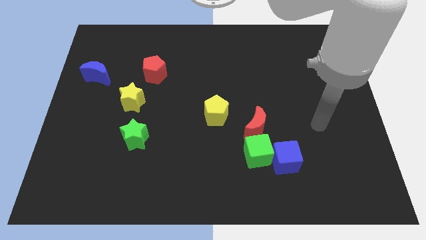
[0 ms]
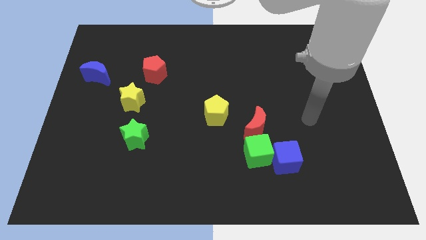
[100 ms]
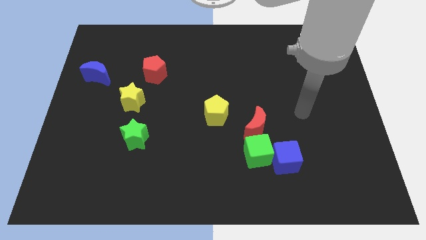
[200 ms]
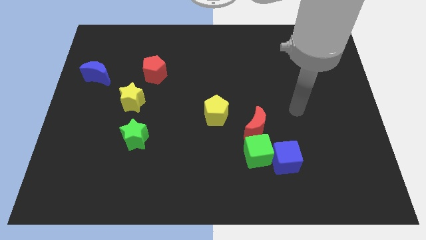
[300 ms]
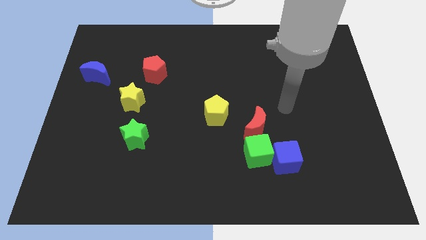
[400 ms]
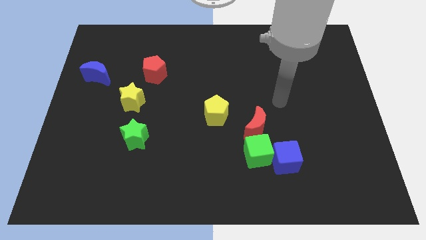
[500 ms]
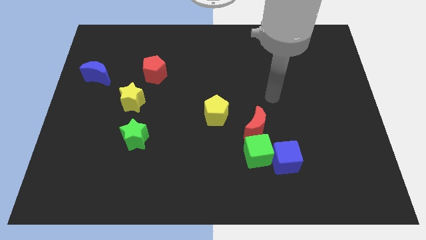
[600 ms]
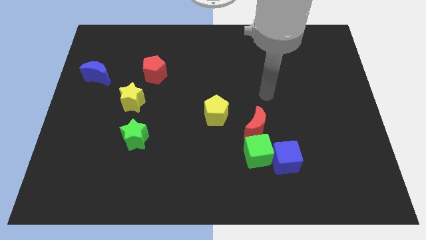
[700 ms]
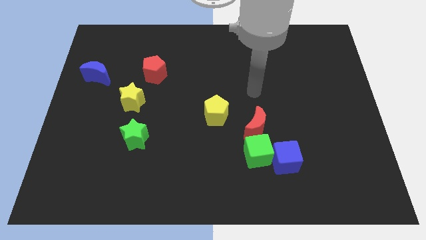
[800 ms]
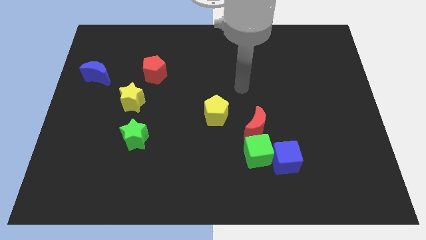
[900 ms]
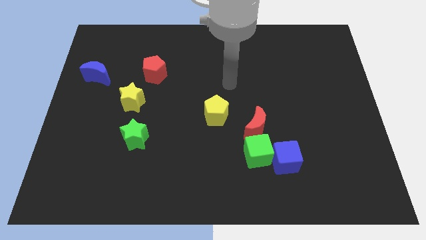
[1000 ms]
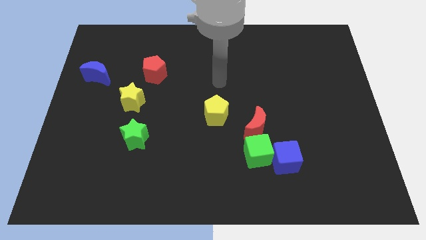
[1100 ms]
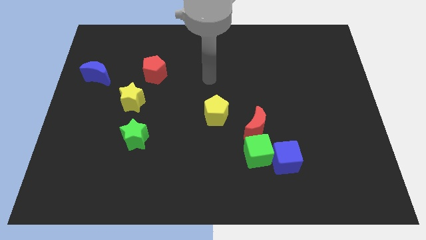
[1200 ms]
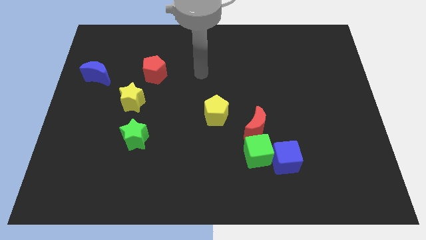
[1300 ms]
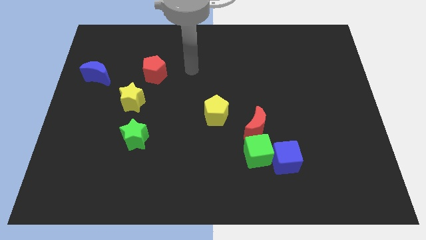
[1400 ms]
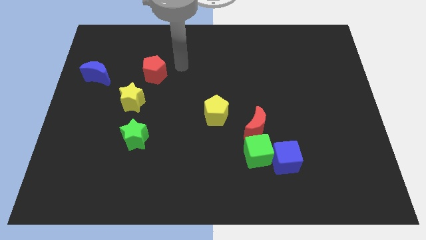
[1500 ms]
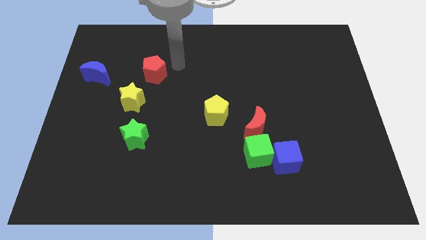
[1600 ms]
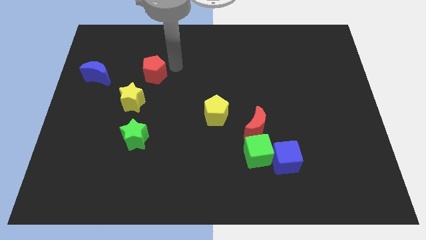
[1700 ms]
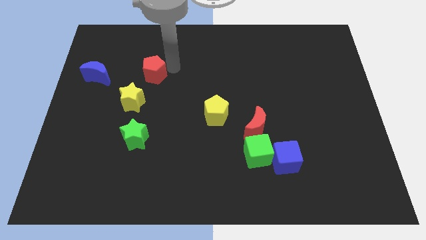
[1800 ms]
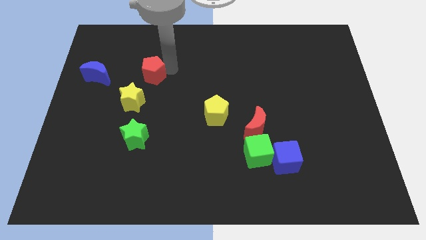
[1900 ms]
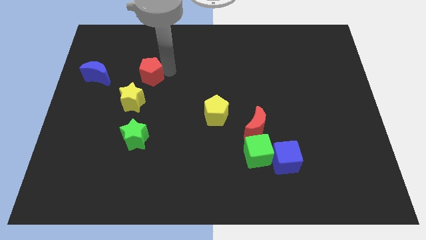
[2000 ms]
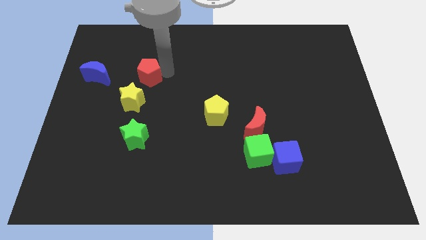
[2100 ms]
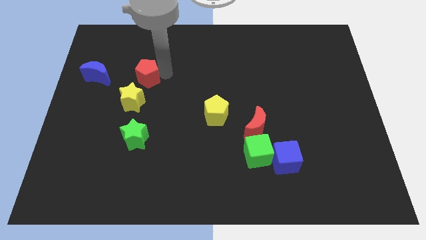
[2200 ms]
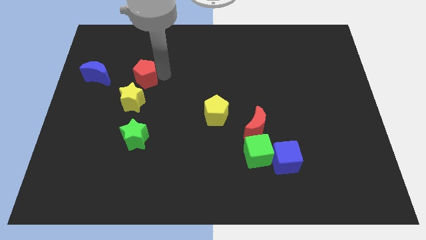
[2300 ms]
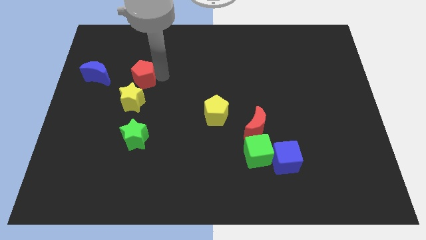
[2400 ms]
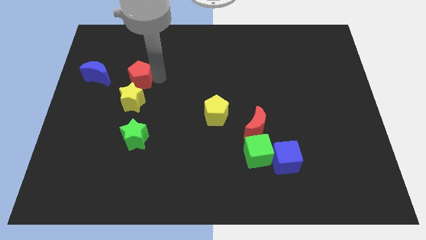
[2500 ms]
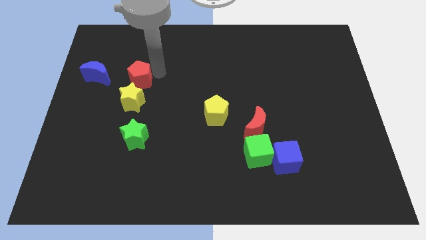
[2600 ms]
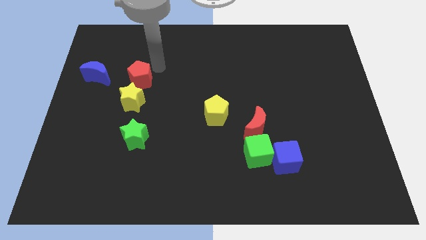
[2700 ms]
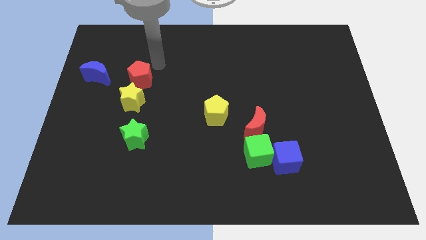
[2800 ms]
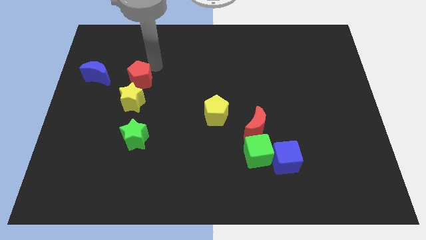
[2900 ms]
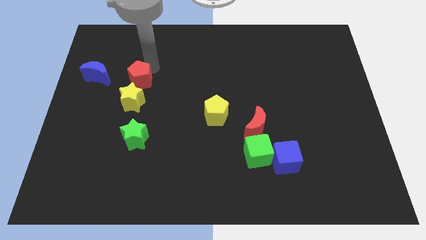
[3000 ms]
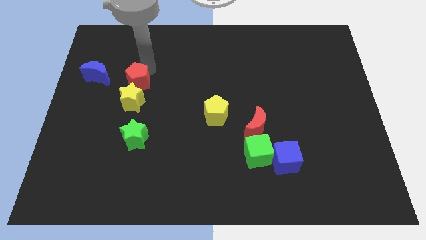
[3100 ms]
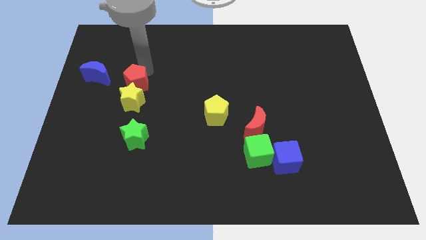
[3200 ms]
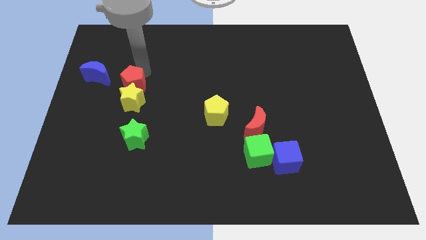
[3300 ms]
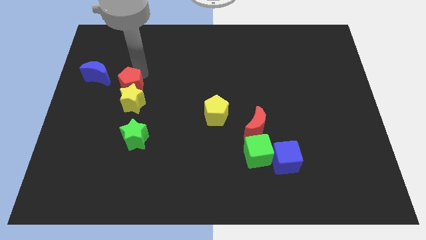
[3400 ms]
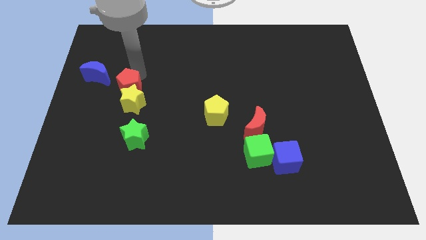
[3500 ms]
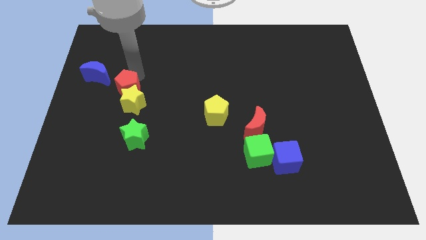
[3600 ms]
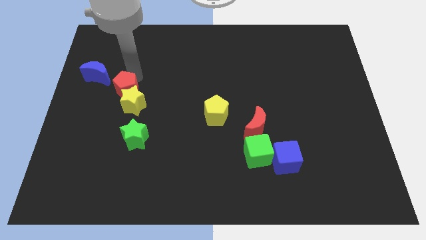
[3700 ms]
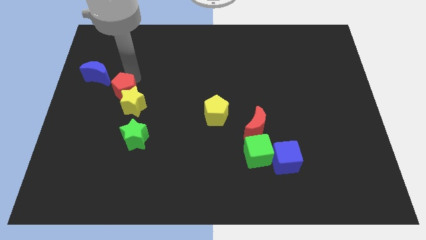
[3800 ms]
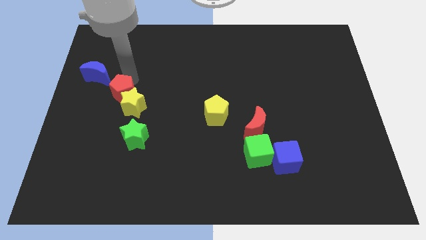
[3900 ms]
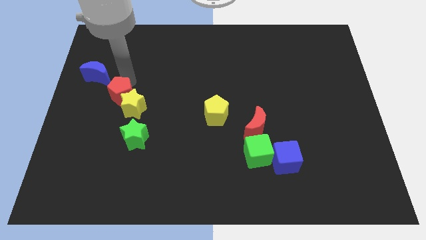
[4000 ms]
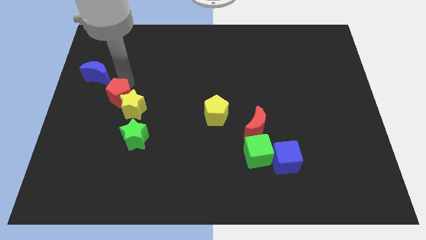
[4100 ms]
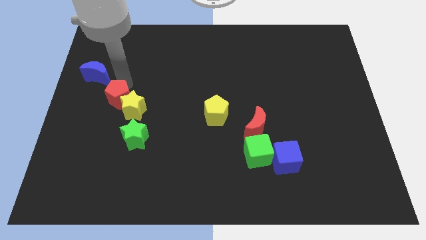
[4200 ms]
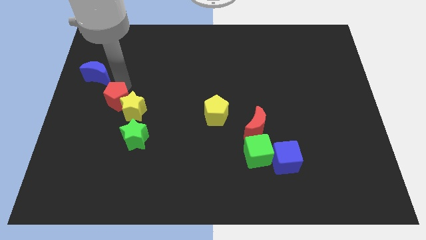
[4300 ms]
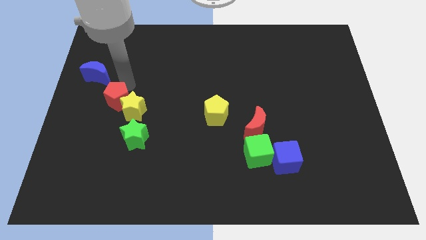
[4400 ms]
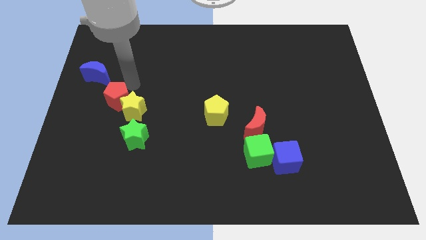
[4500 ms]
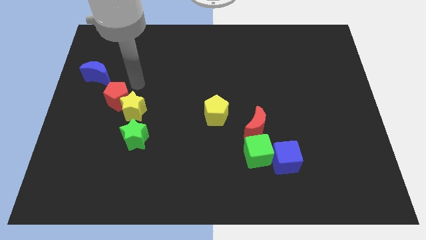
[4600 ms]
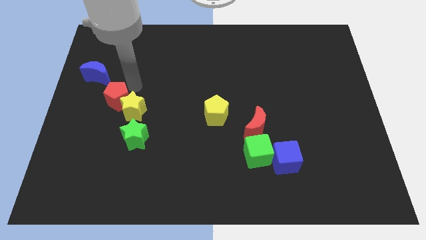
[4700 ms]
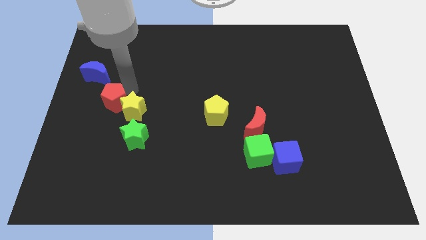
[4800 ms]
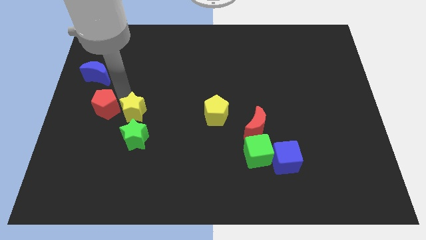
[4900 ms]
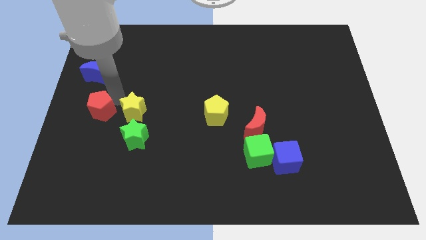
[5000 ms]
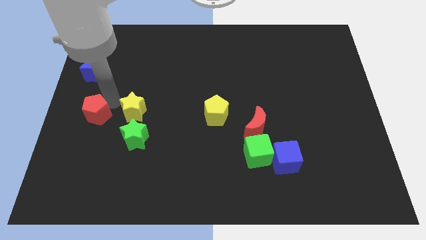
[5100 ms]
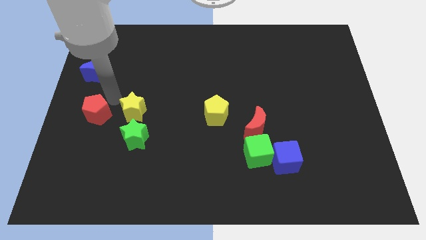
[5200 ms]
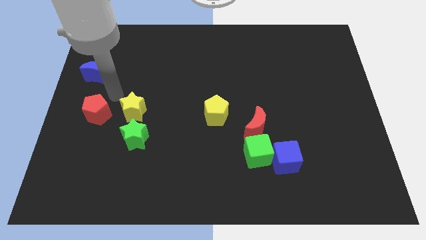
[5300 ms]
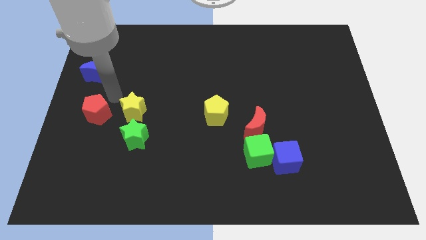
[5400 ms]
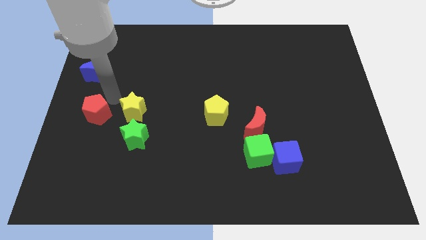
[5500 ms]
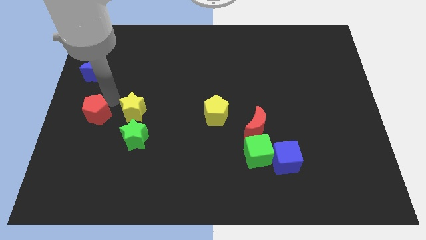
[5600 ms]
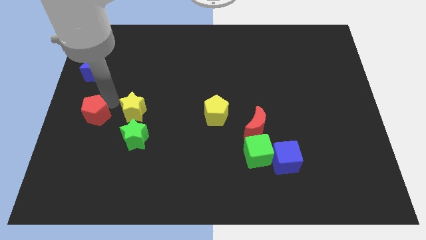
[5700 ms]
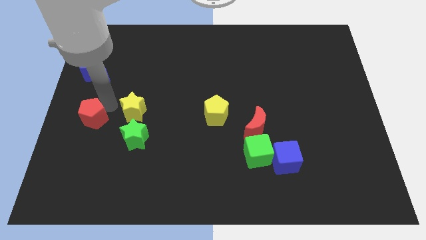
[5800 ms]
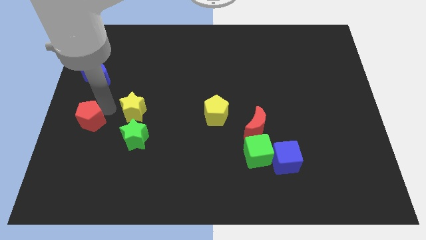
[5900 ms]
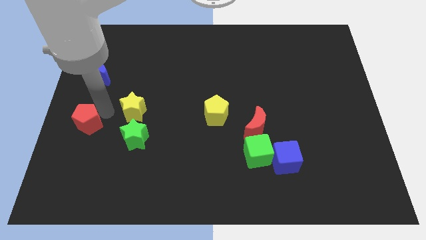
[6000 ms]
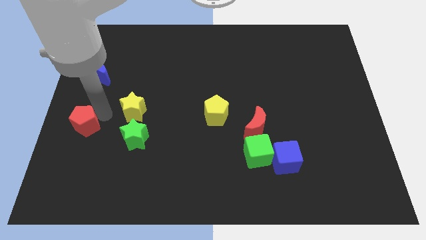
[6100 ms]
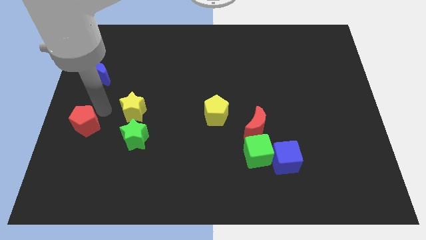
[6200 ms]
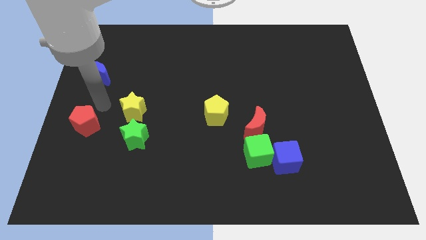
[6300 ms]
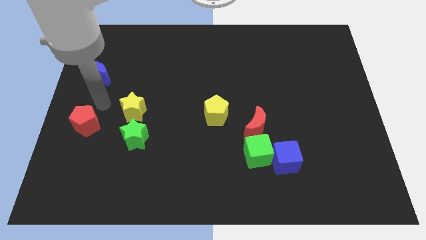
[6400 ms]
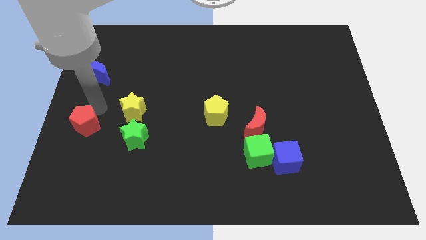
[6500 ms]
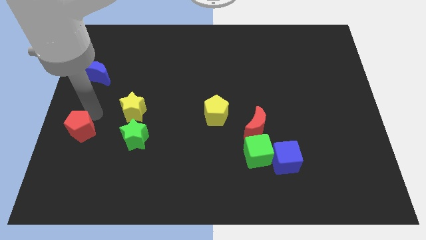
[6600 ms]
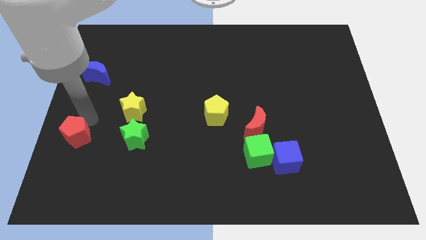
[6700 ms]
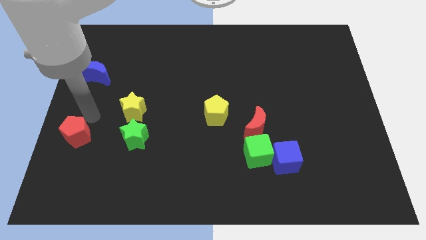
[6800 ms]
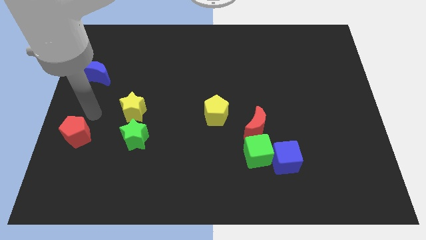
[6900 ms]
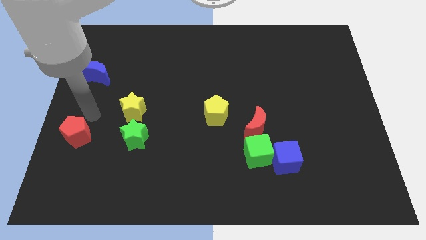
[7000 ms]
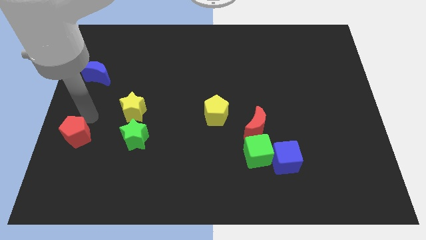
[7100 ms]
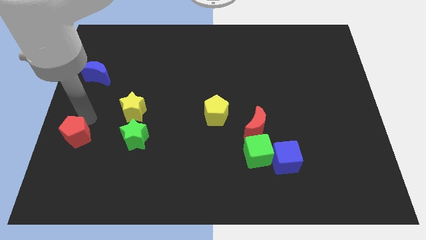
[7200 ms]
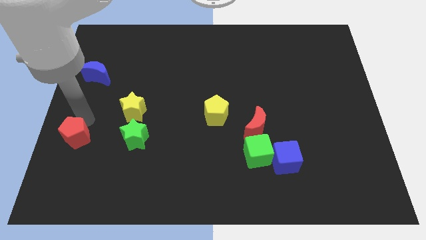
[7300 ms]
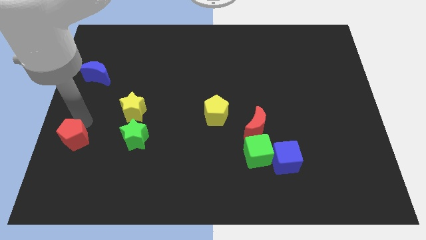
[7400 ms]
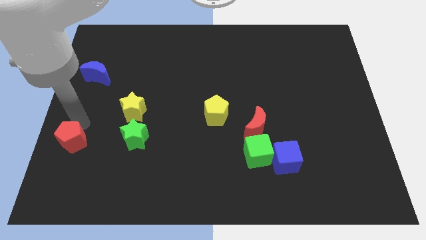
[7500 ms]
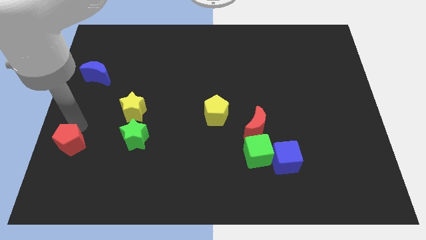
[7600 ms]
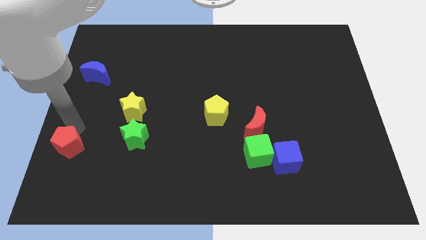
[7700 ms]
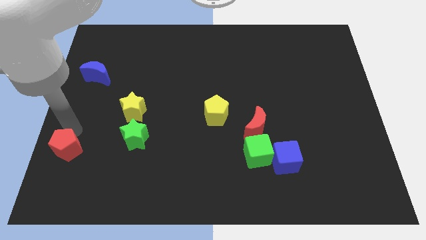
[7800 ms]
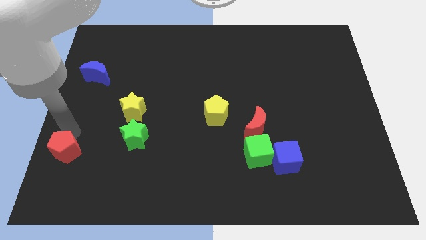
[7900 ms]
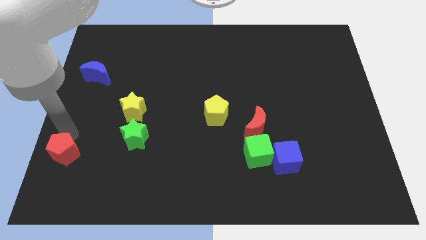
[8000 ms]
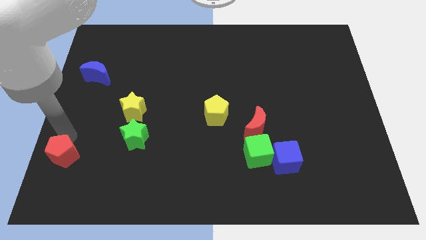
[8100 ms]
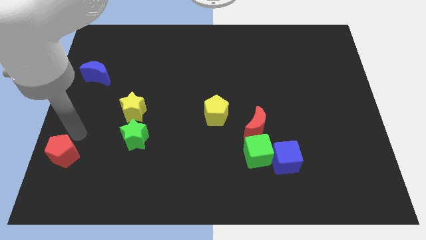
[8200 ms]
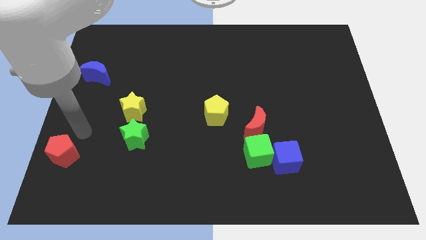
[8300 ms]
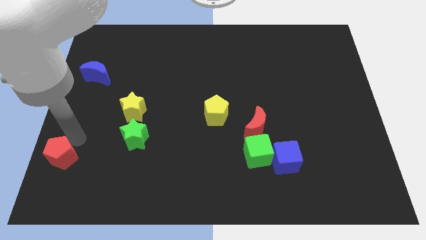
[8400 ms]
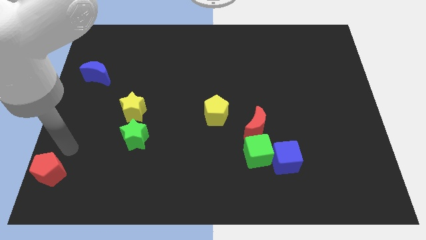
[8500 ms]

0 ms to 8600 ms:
put the red pentagon to the bottom left of the board
